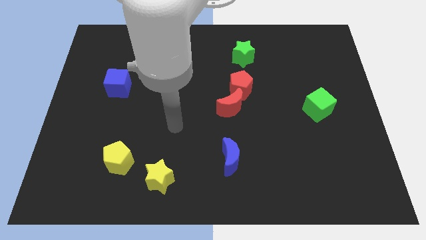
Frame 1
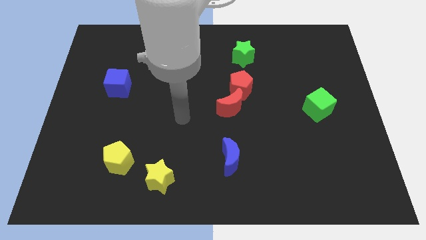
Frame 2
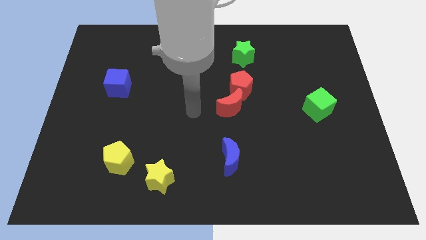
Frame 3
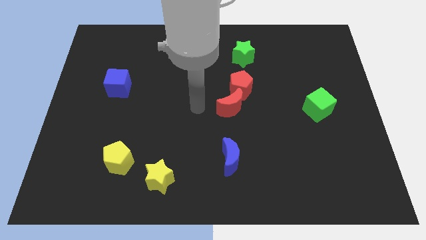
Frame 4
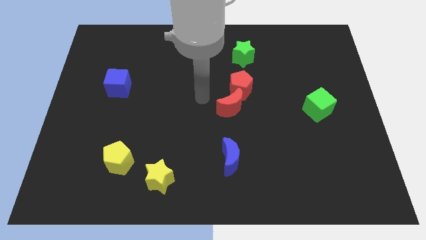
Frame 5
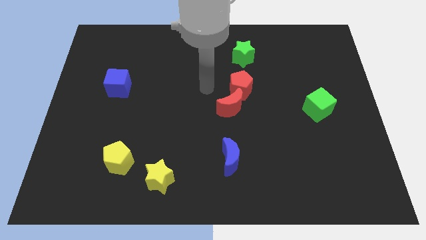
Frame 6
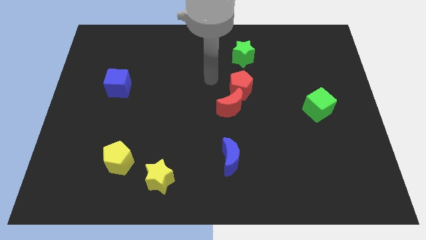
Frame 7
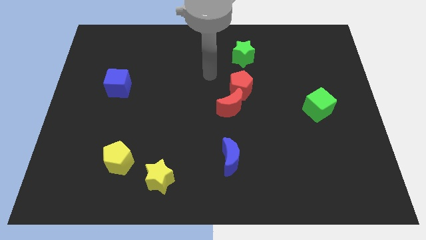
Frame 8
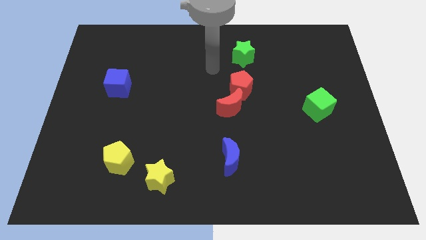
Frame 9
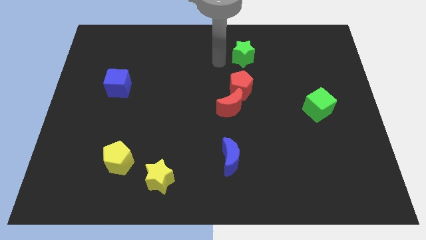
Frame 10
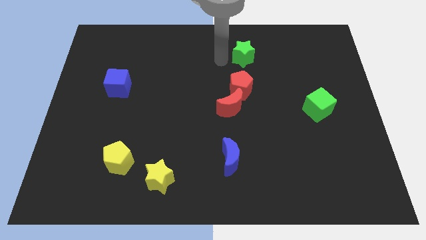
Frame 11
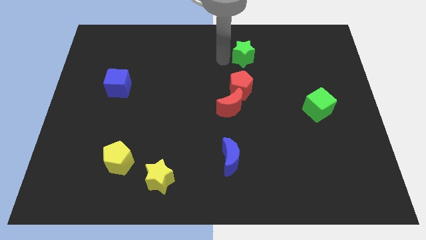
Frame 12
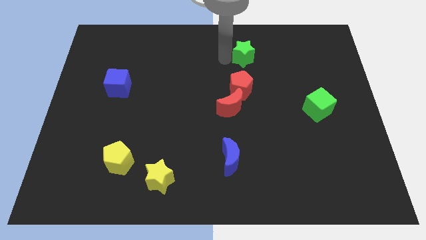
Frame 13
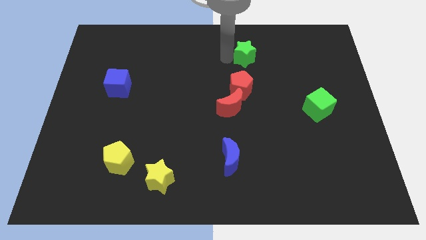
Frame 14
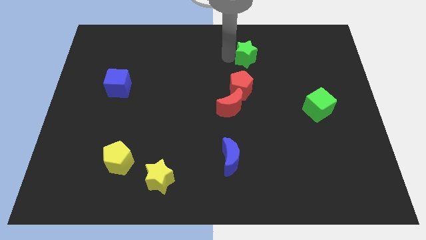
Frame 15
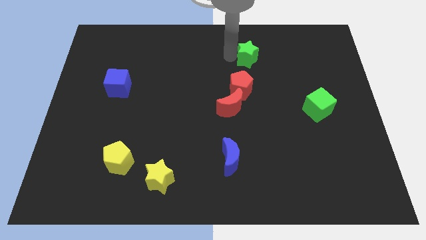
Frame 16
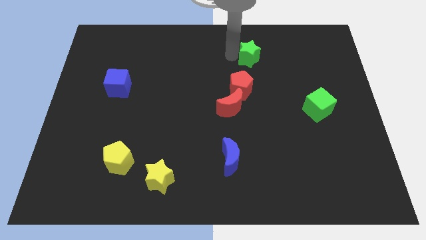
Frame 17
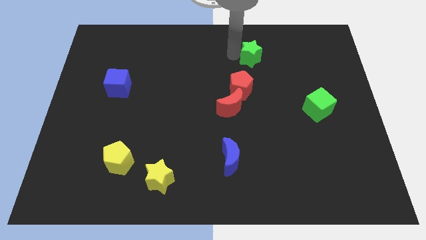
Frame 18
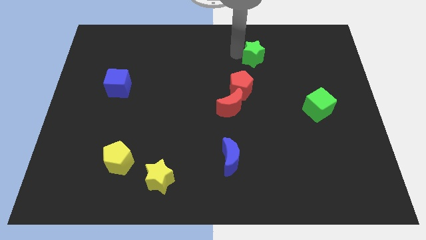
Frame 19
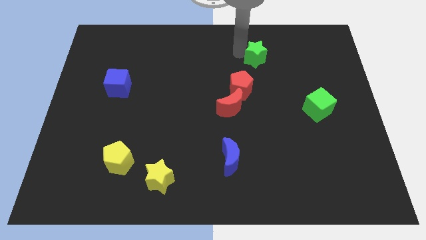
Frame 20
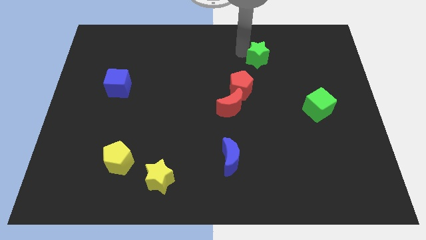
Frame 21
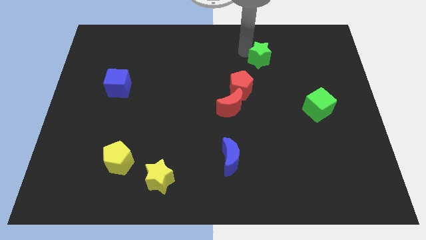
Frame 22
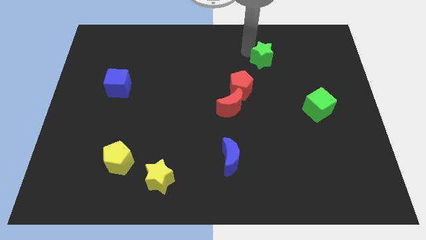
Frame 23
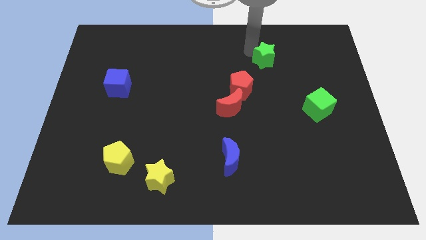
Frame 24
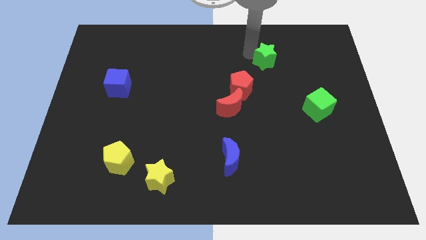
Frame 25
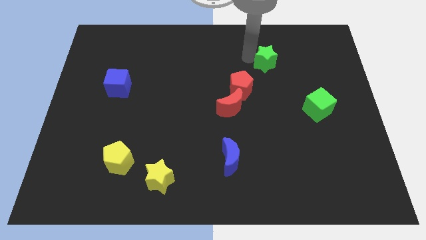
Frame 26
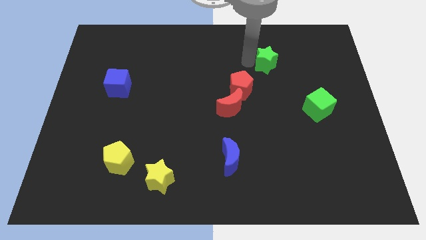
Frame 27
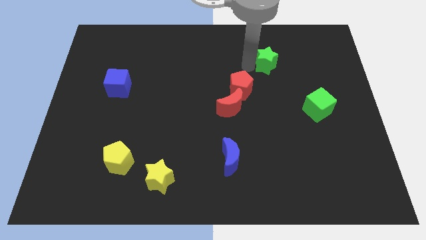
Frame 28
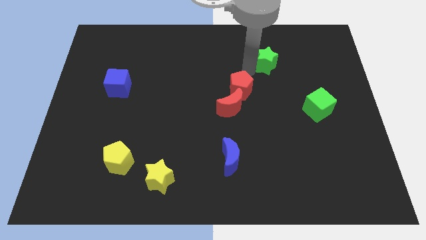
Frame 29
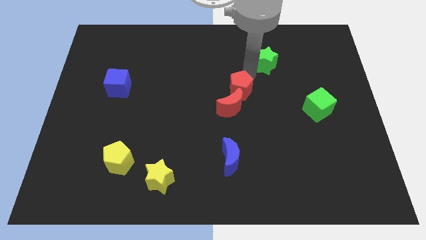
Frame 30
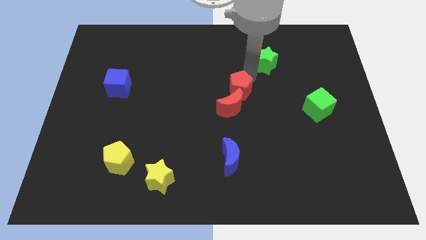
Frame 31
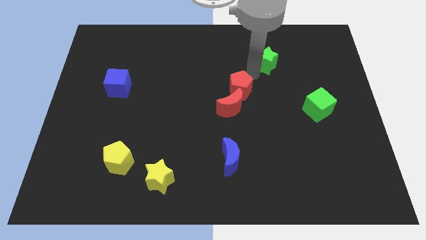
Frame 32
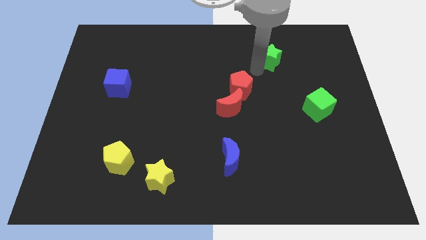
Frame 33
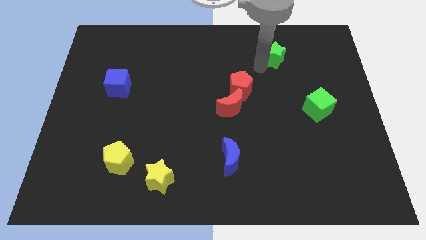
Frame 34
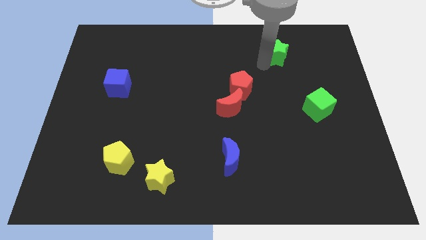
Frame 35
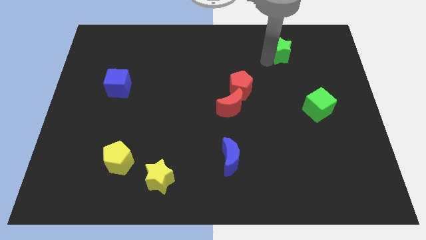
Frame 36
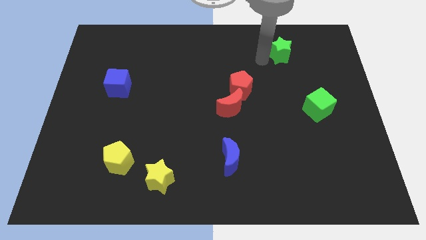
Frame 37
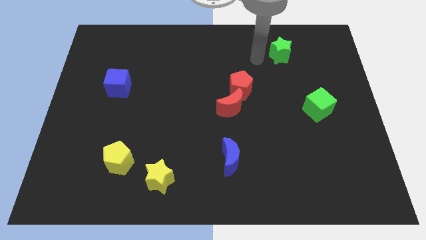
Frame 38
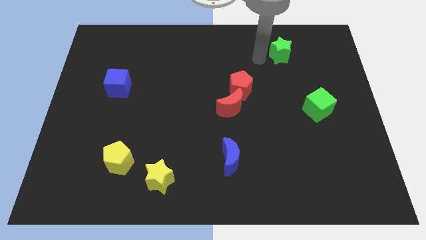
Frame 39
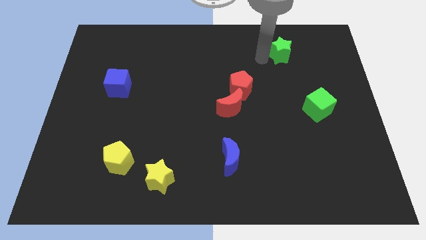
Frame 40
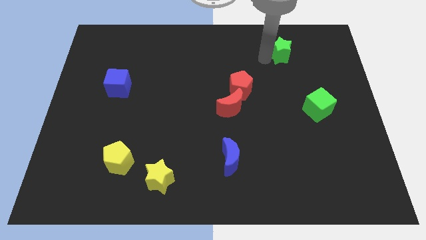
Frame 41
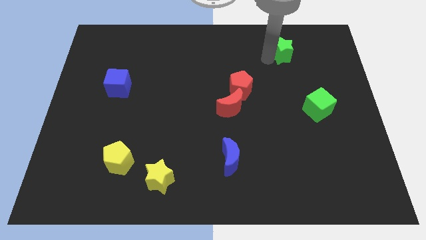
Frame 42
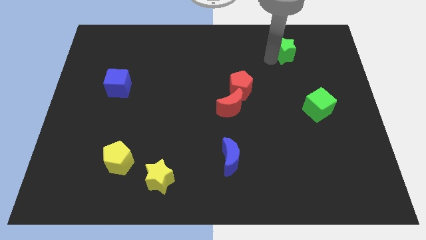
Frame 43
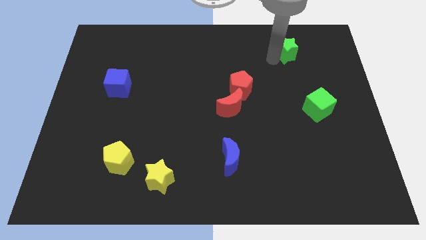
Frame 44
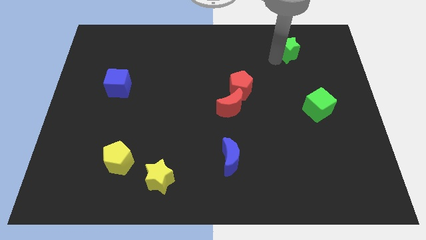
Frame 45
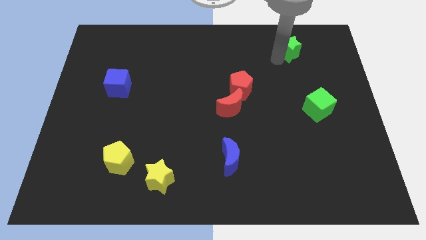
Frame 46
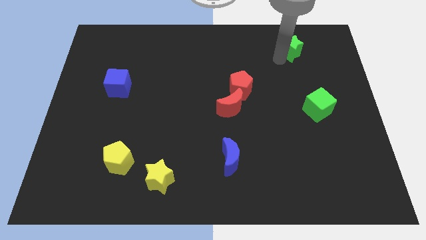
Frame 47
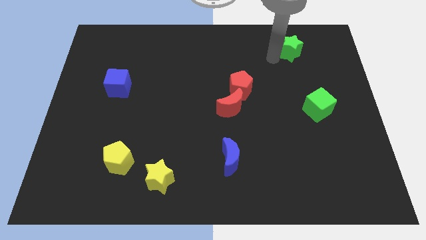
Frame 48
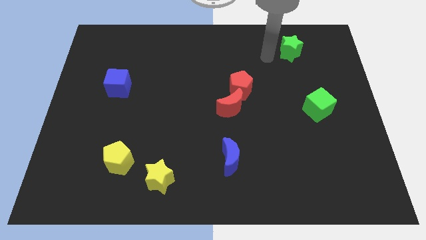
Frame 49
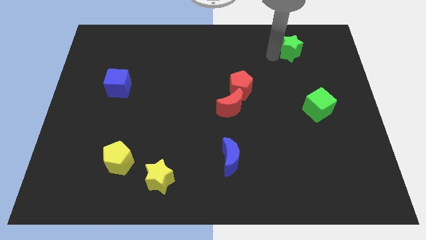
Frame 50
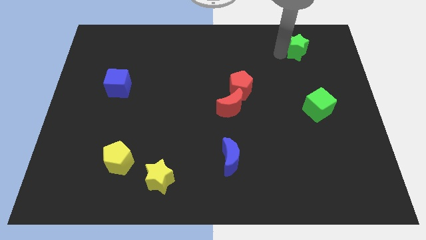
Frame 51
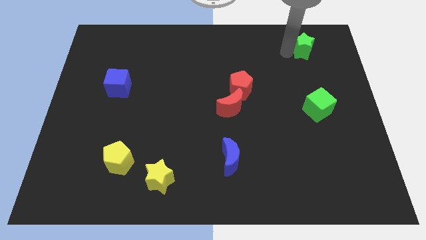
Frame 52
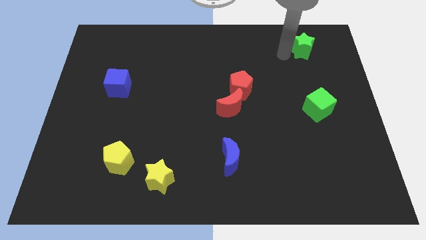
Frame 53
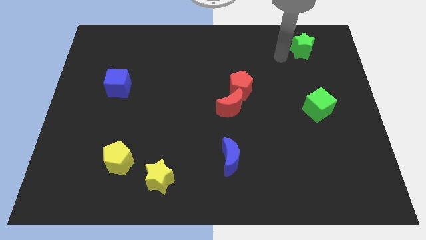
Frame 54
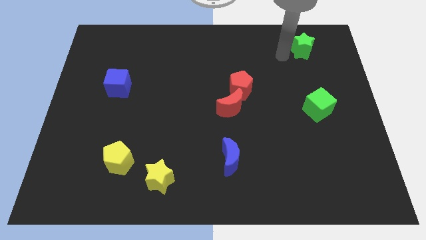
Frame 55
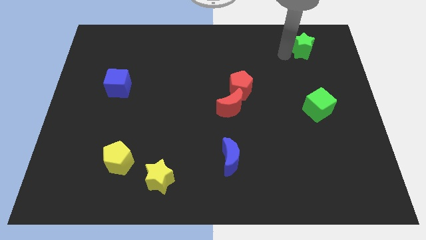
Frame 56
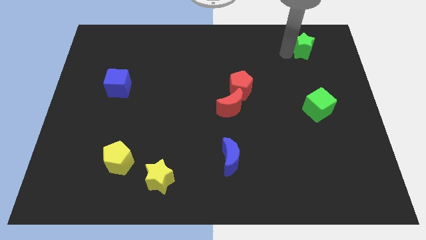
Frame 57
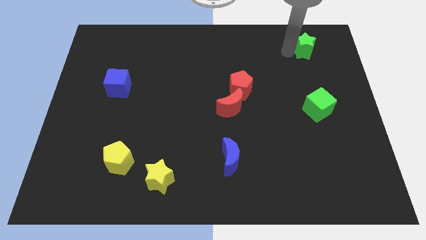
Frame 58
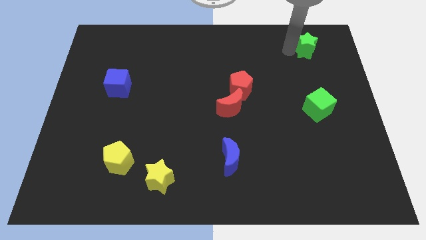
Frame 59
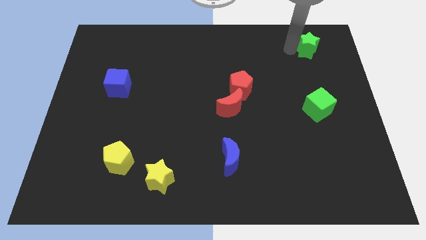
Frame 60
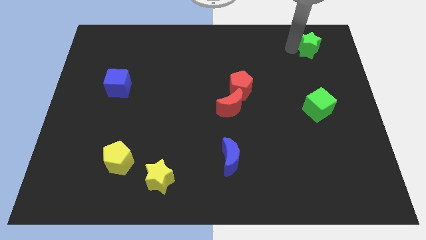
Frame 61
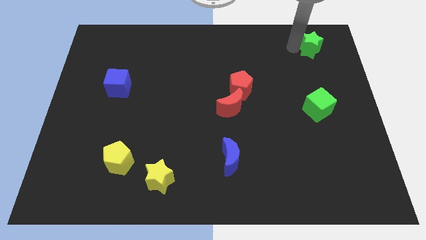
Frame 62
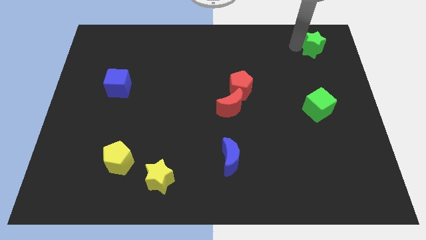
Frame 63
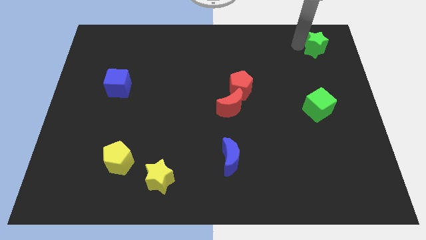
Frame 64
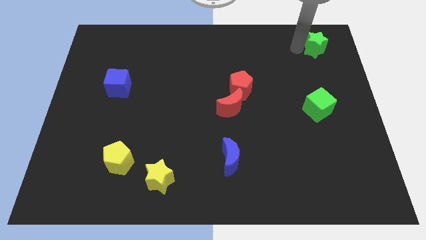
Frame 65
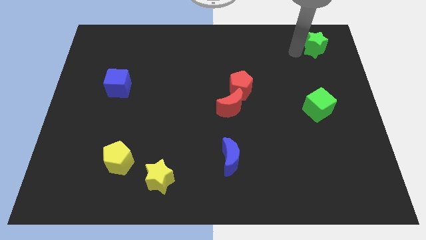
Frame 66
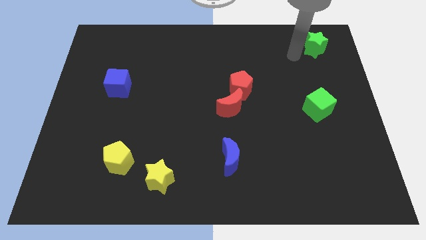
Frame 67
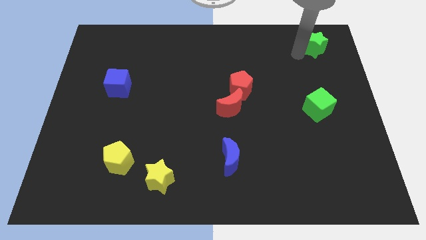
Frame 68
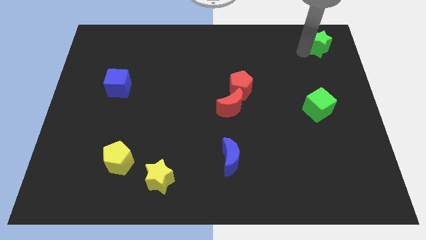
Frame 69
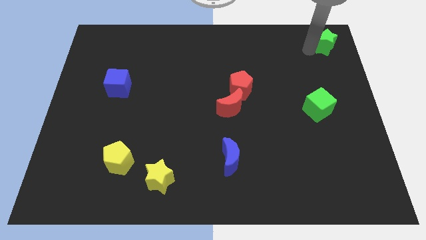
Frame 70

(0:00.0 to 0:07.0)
put the green star to the upper right corner
